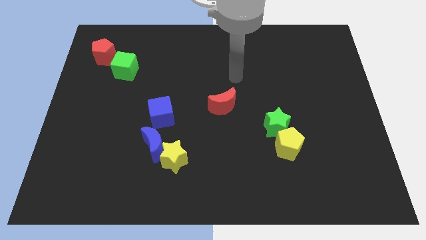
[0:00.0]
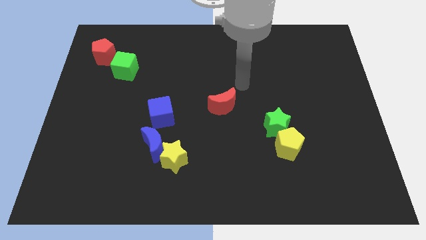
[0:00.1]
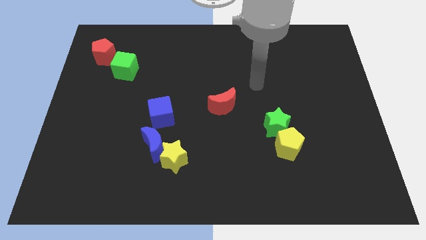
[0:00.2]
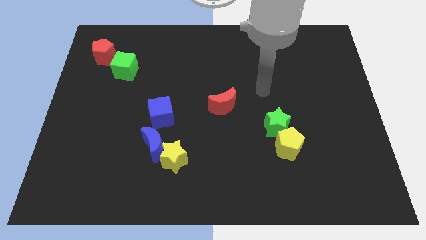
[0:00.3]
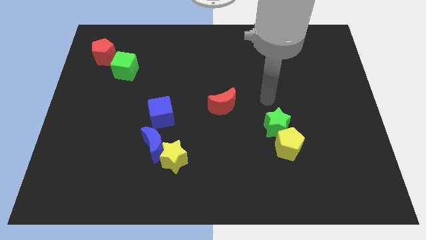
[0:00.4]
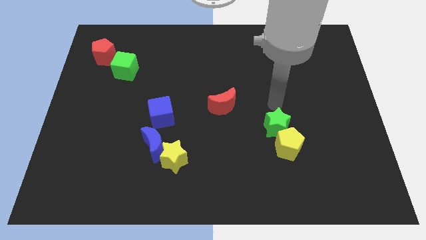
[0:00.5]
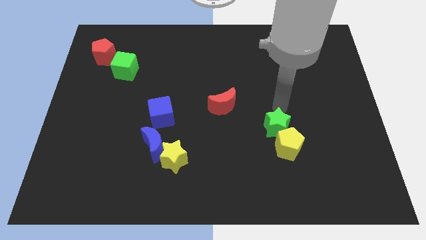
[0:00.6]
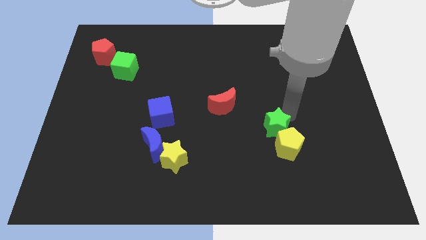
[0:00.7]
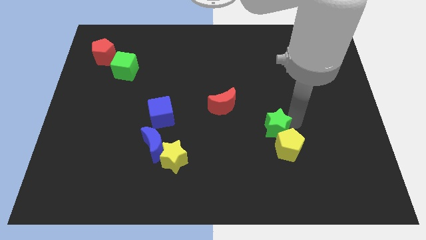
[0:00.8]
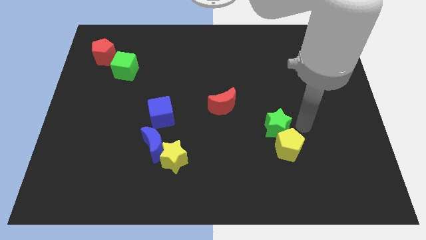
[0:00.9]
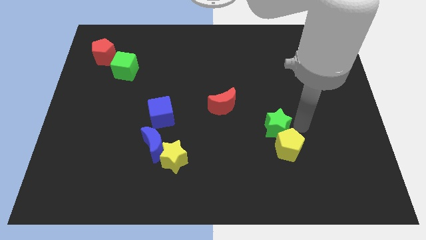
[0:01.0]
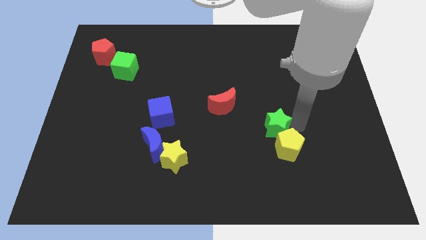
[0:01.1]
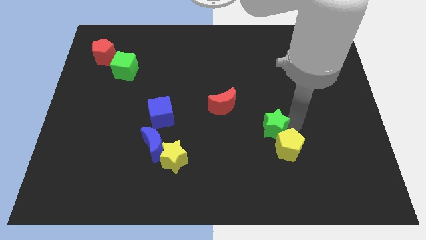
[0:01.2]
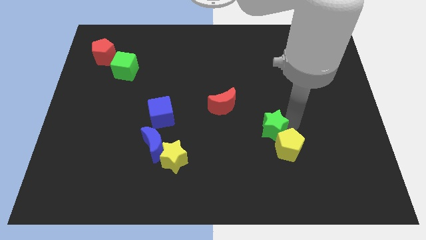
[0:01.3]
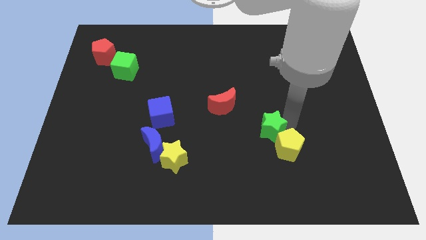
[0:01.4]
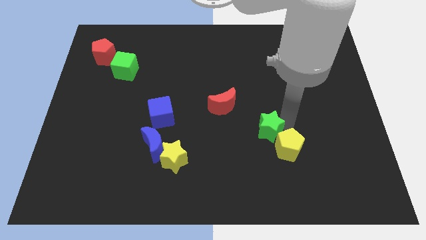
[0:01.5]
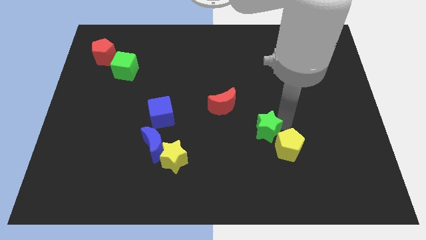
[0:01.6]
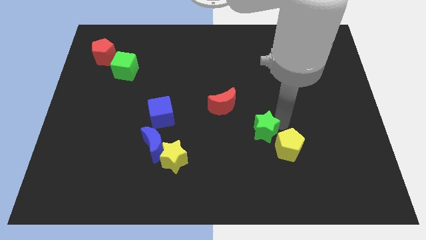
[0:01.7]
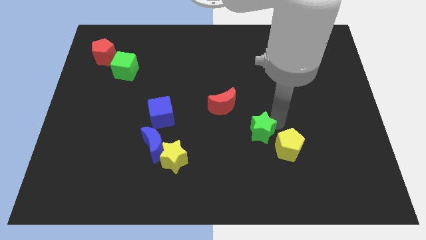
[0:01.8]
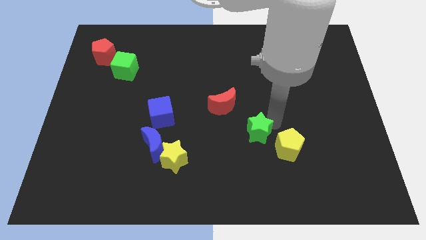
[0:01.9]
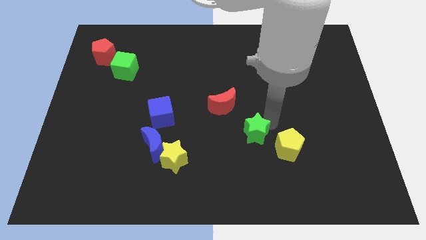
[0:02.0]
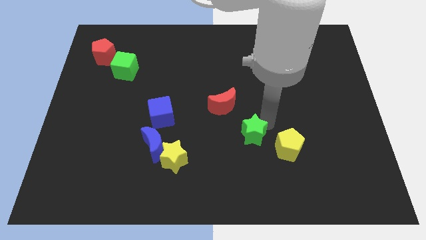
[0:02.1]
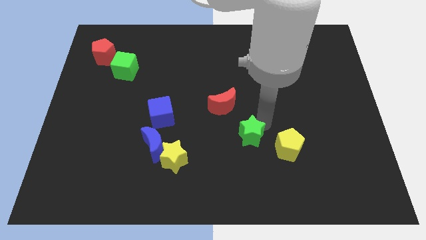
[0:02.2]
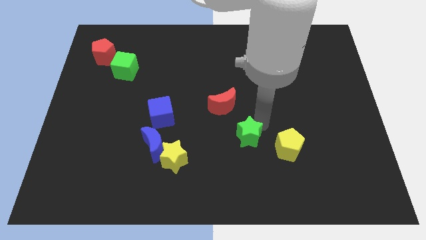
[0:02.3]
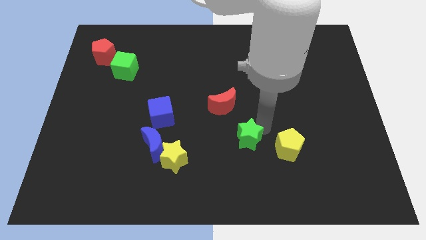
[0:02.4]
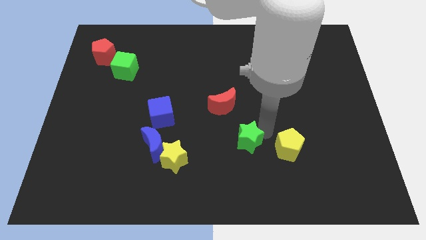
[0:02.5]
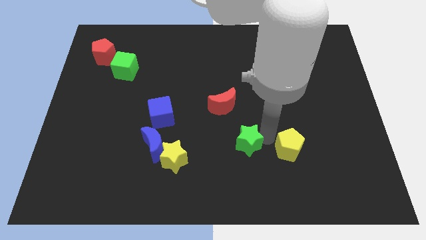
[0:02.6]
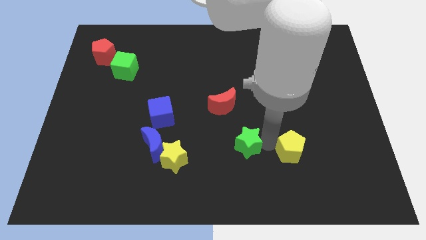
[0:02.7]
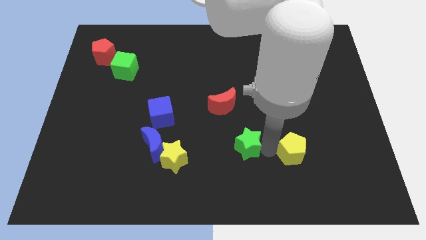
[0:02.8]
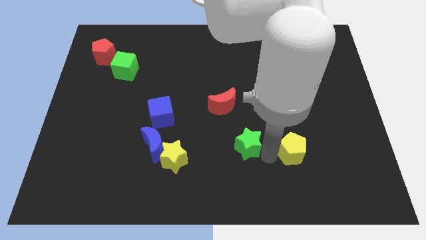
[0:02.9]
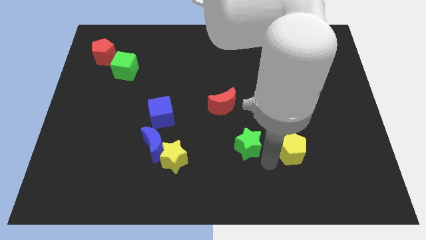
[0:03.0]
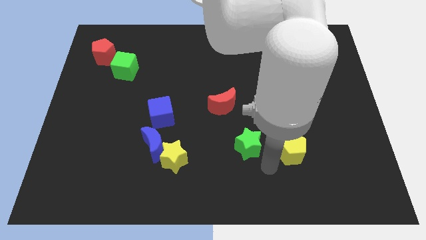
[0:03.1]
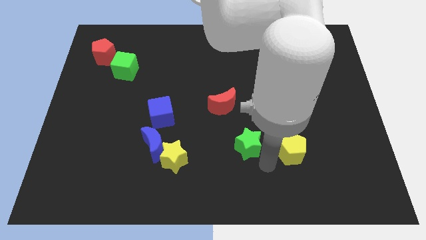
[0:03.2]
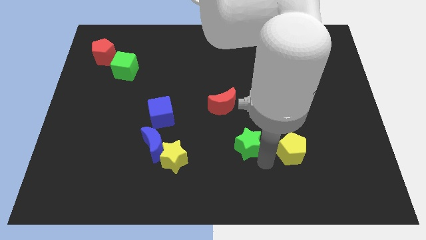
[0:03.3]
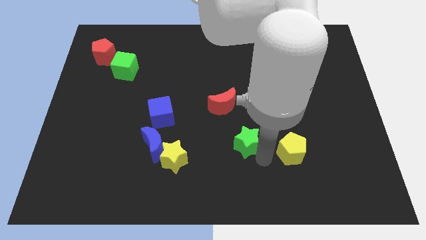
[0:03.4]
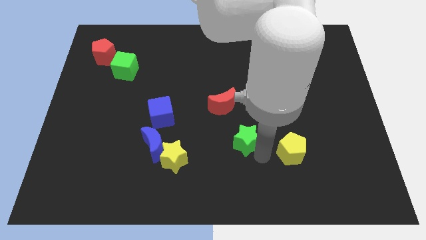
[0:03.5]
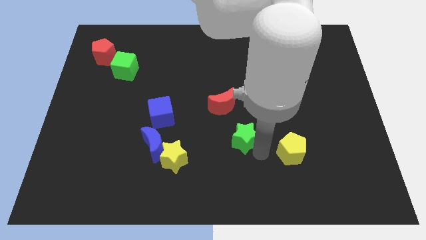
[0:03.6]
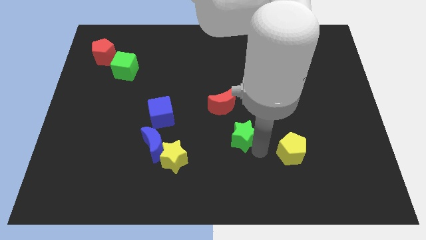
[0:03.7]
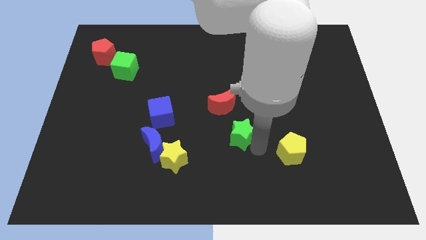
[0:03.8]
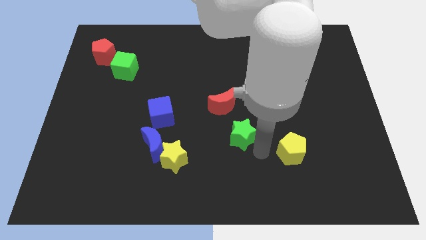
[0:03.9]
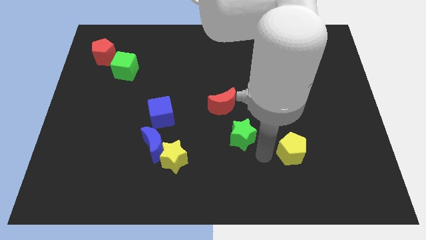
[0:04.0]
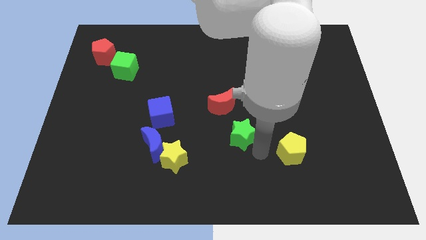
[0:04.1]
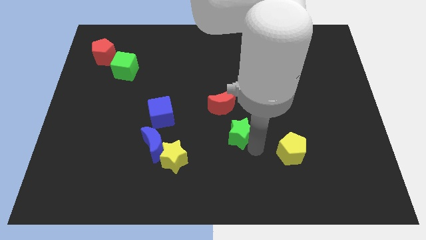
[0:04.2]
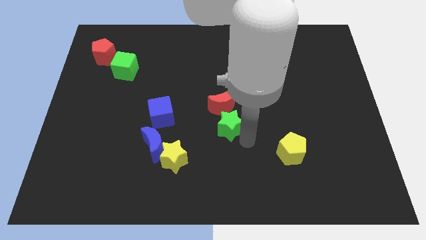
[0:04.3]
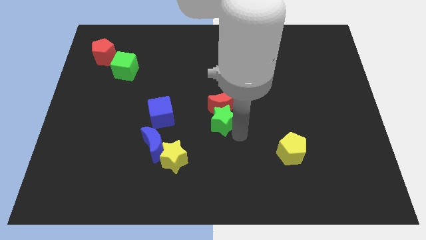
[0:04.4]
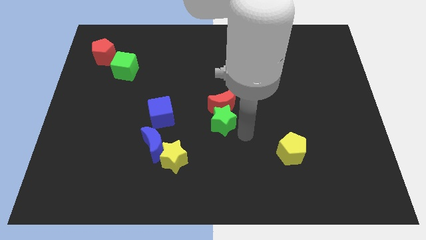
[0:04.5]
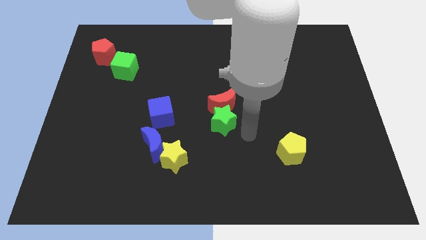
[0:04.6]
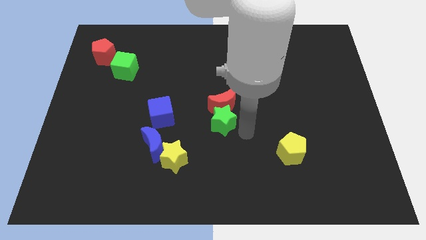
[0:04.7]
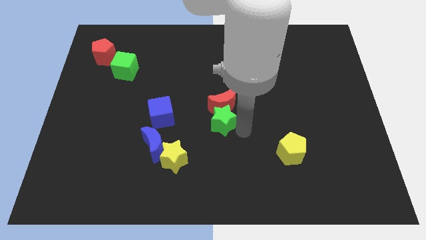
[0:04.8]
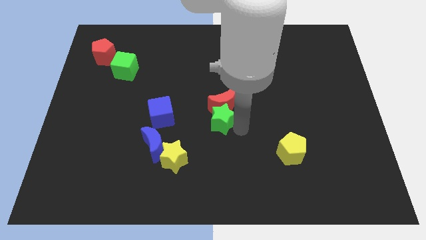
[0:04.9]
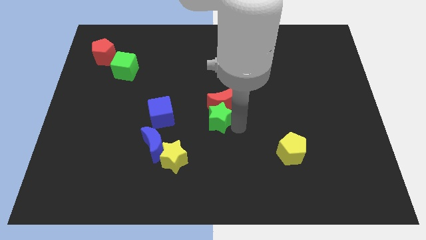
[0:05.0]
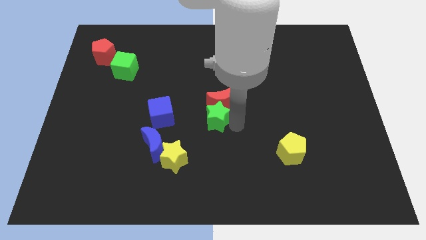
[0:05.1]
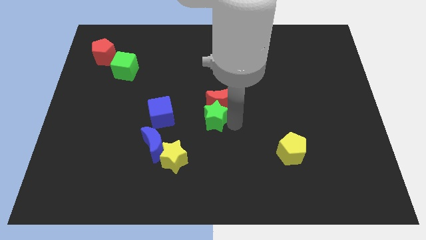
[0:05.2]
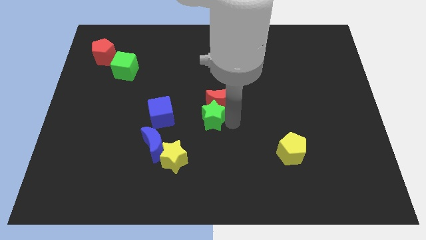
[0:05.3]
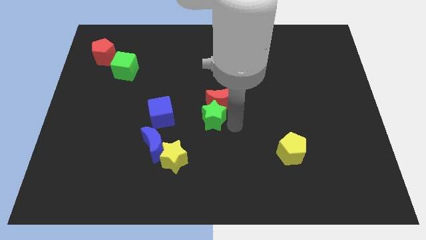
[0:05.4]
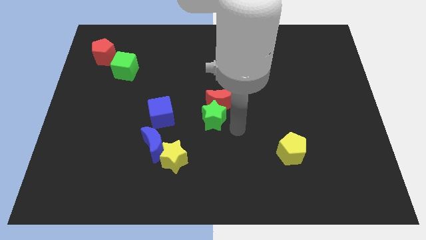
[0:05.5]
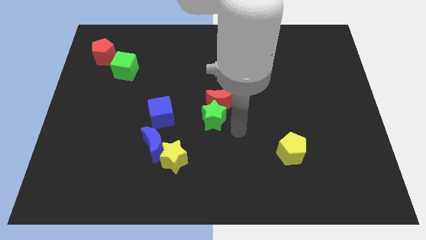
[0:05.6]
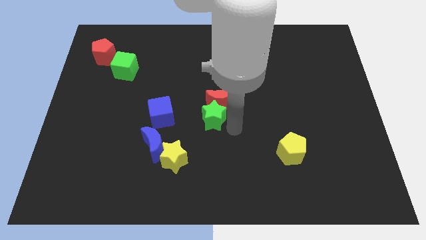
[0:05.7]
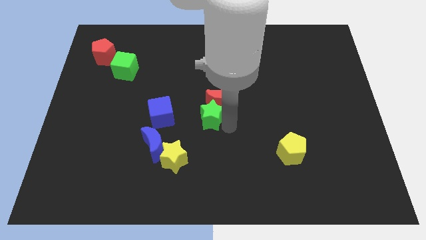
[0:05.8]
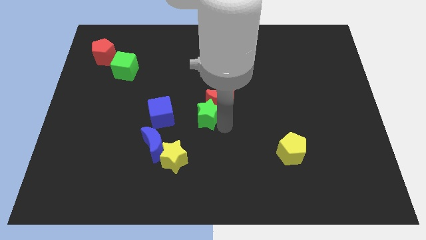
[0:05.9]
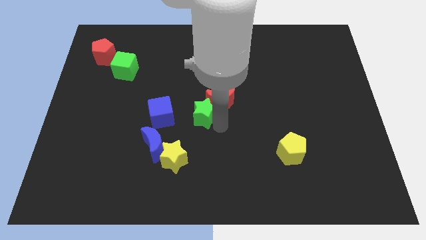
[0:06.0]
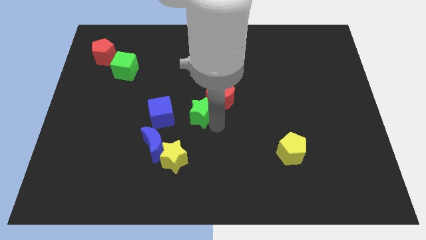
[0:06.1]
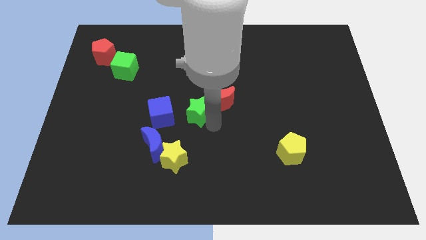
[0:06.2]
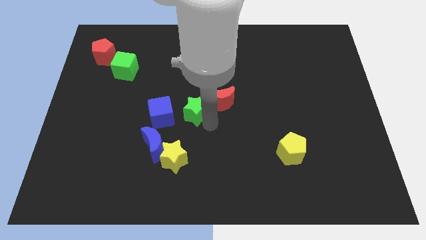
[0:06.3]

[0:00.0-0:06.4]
push the green star to the top right side of the blue cube

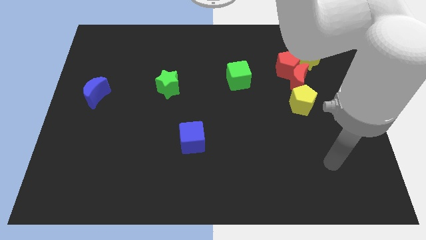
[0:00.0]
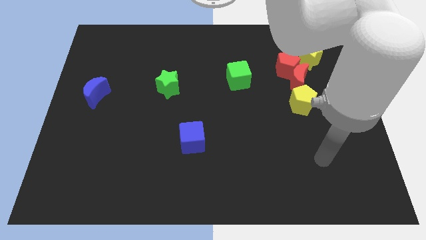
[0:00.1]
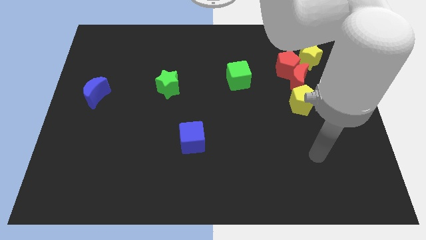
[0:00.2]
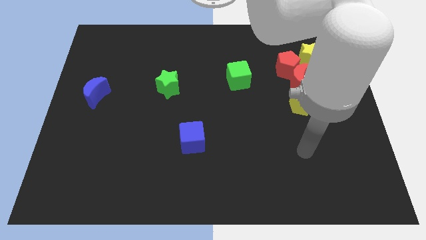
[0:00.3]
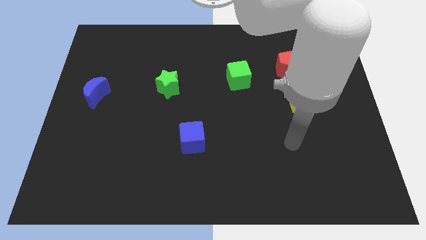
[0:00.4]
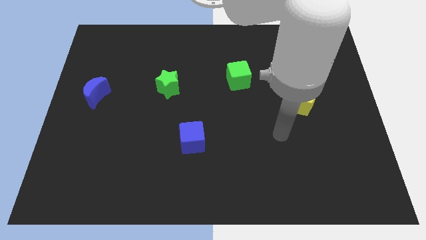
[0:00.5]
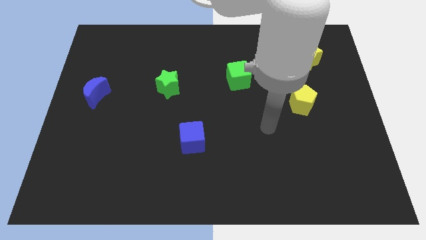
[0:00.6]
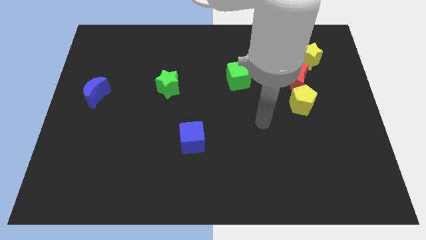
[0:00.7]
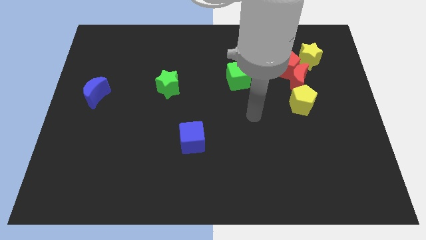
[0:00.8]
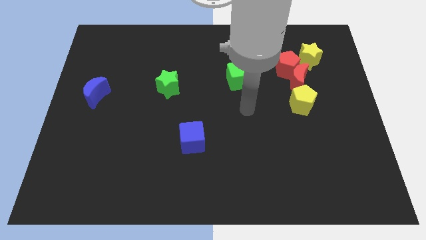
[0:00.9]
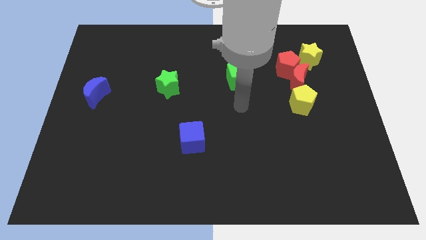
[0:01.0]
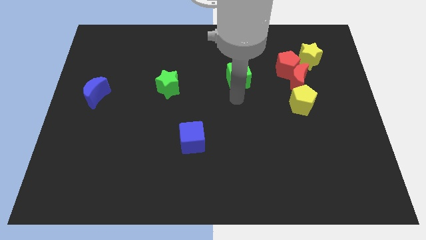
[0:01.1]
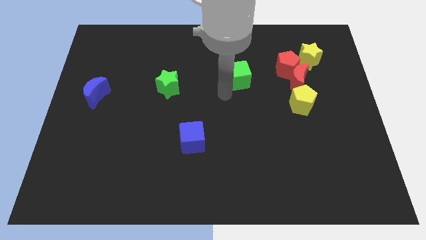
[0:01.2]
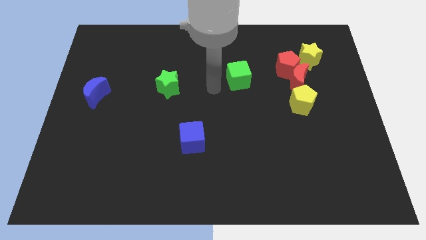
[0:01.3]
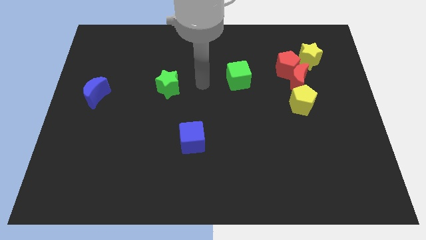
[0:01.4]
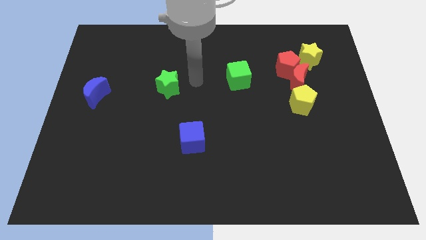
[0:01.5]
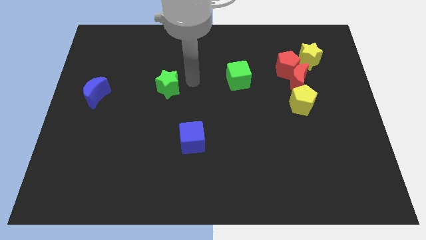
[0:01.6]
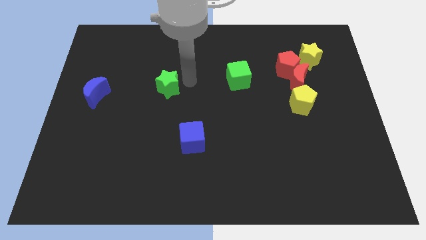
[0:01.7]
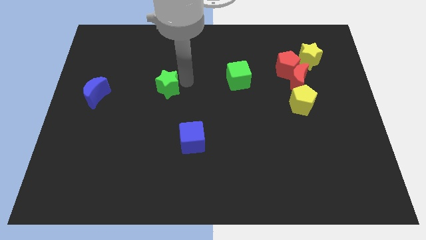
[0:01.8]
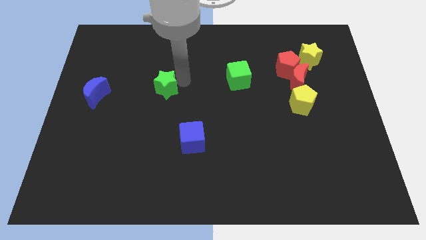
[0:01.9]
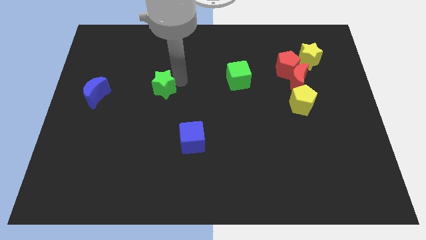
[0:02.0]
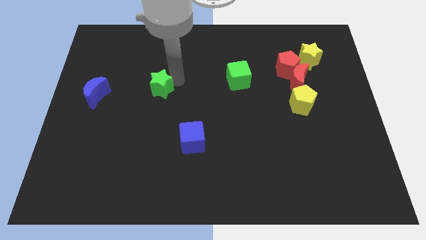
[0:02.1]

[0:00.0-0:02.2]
move the green star to the right side of the blue moon
